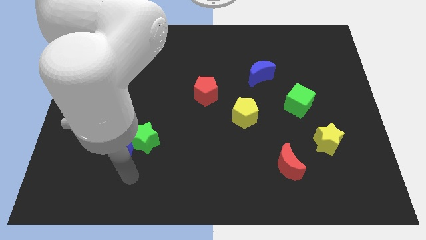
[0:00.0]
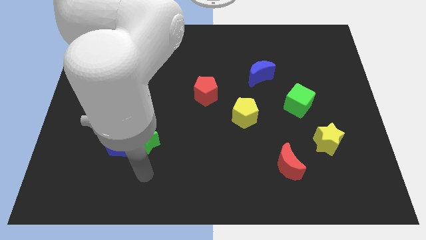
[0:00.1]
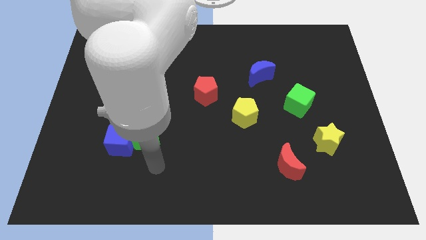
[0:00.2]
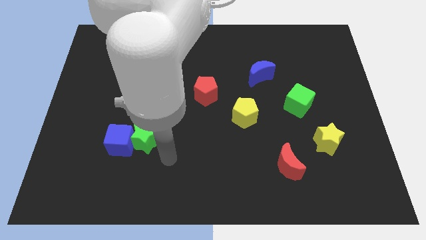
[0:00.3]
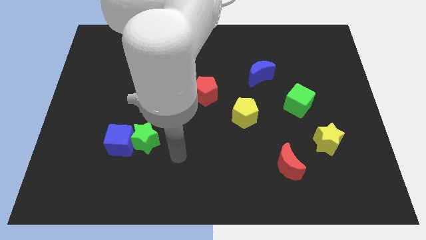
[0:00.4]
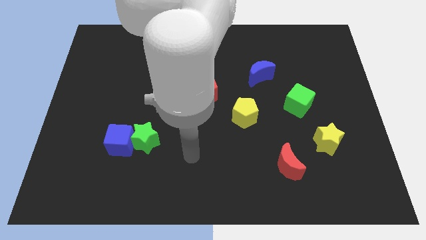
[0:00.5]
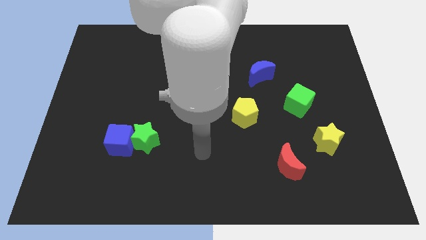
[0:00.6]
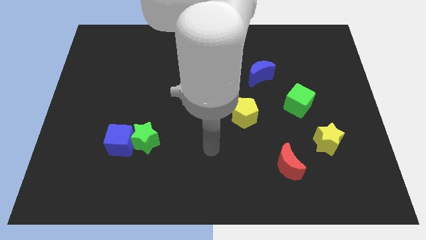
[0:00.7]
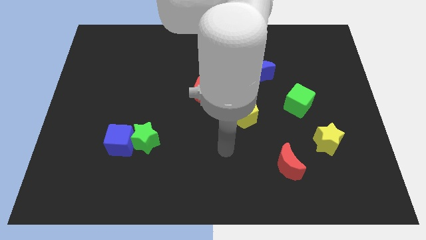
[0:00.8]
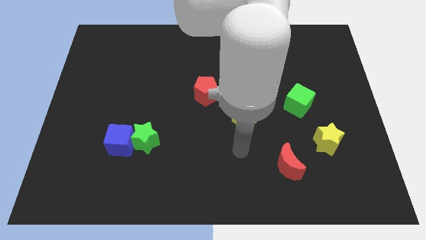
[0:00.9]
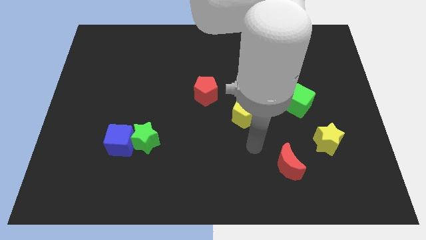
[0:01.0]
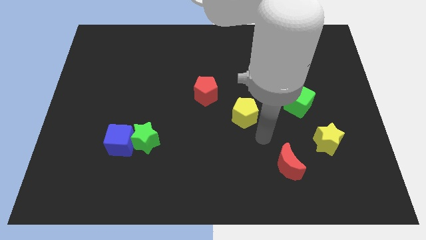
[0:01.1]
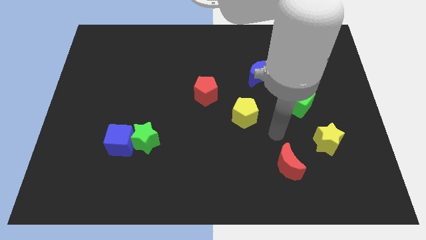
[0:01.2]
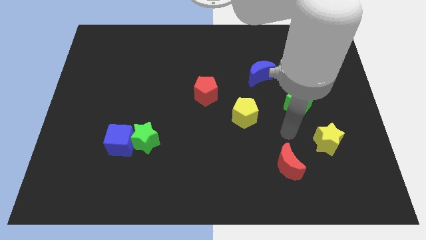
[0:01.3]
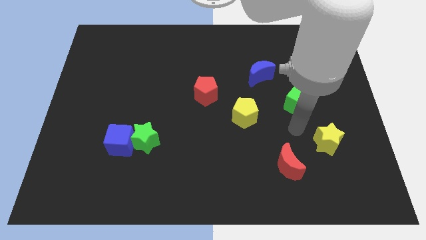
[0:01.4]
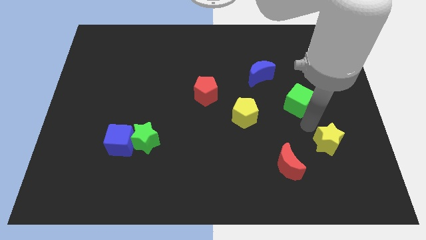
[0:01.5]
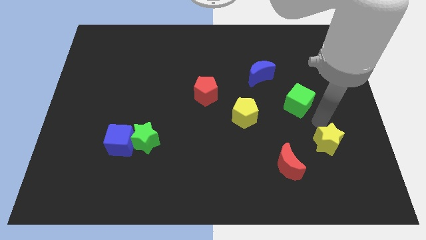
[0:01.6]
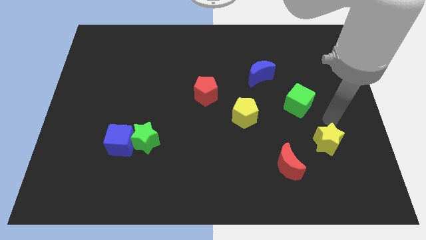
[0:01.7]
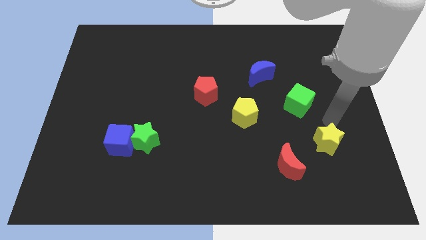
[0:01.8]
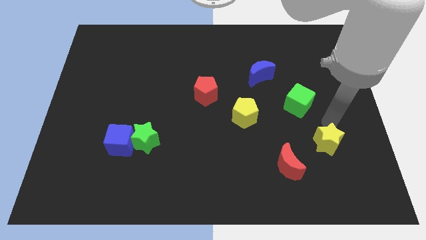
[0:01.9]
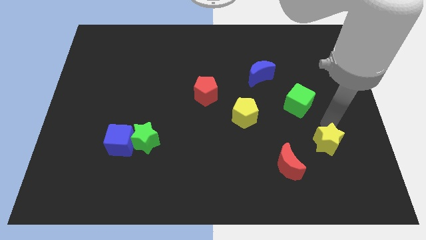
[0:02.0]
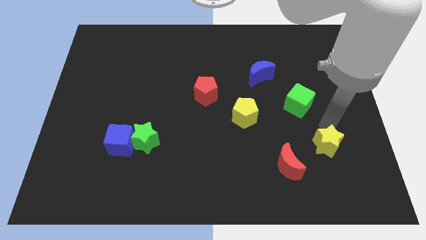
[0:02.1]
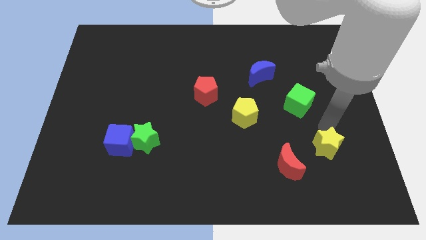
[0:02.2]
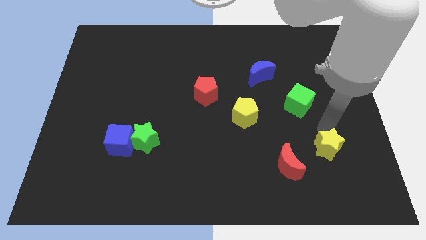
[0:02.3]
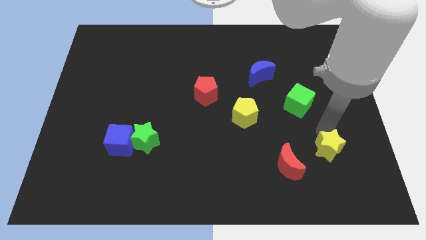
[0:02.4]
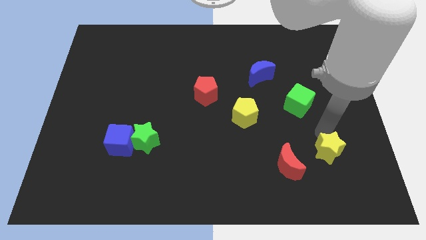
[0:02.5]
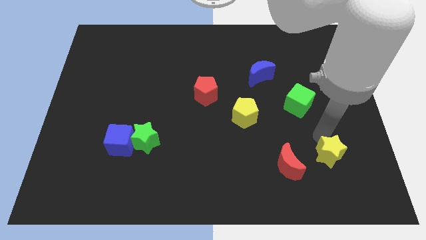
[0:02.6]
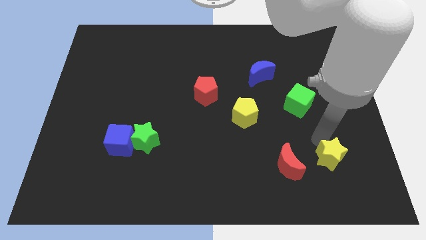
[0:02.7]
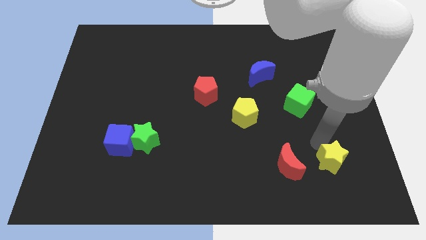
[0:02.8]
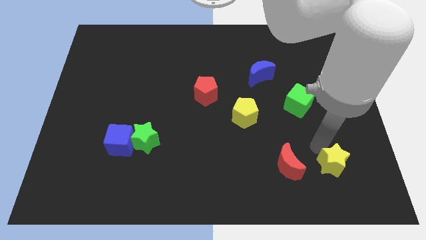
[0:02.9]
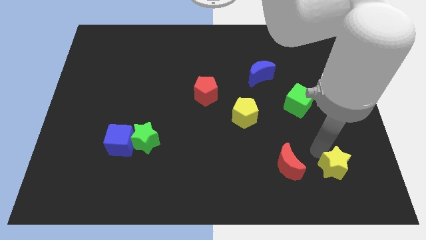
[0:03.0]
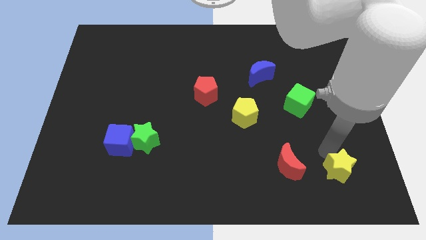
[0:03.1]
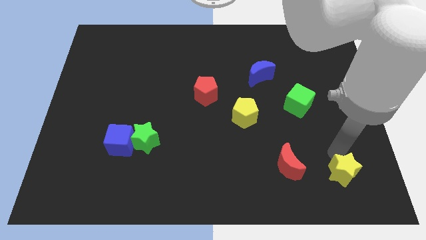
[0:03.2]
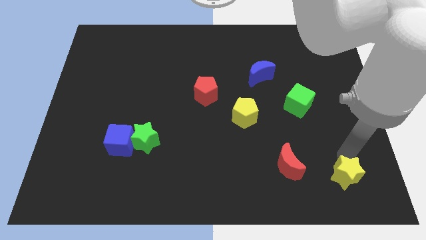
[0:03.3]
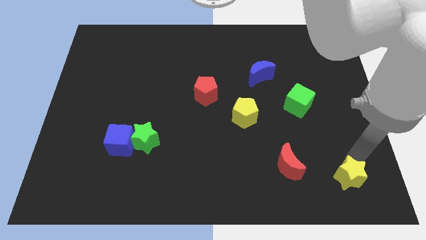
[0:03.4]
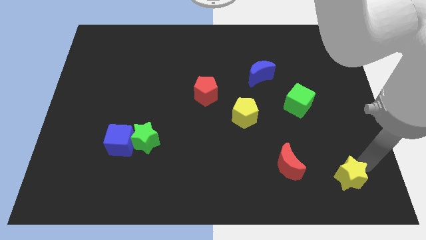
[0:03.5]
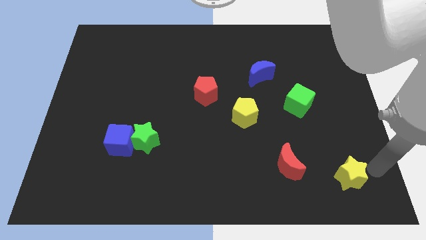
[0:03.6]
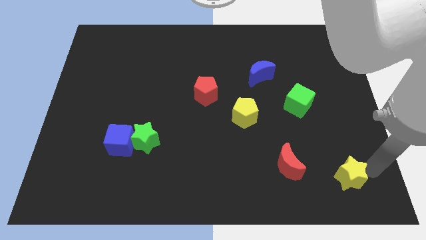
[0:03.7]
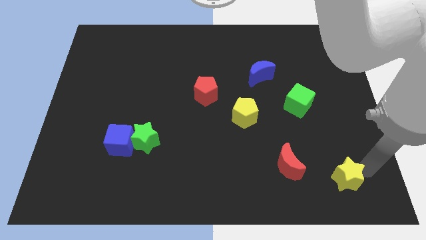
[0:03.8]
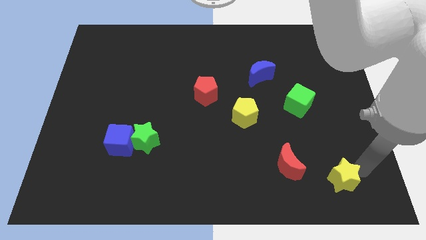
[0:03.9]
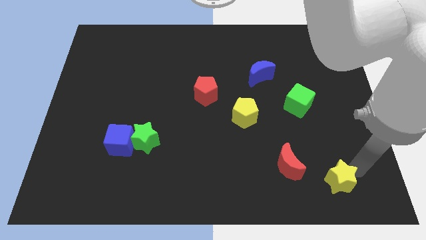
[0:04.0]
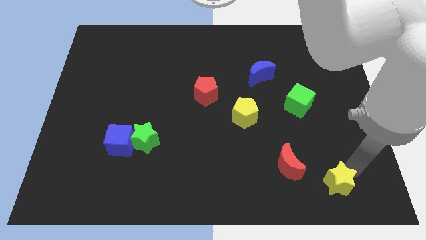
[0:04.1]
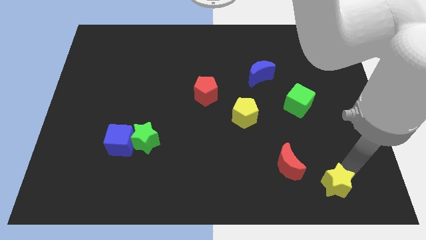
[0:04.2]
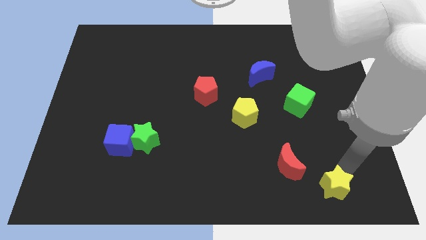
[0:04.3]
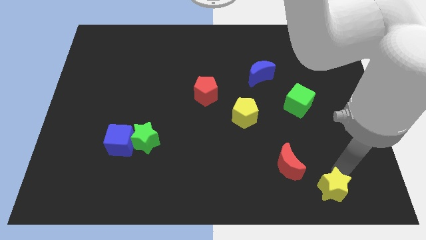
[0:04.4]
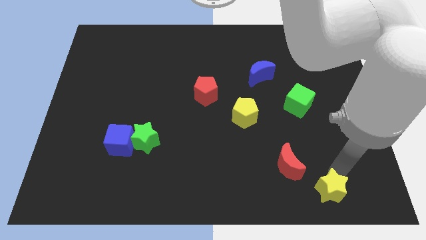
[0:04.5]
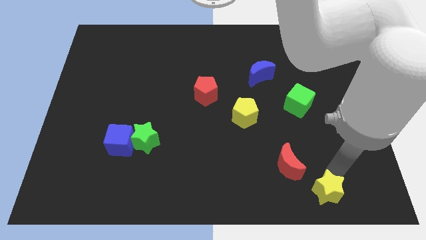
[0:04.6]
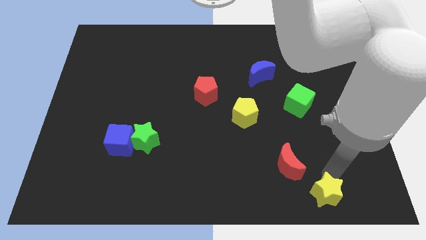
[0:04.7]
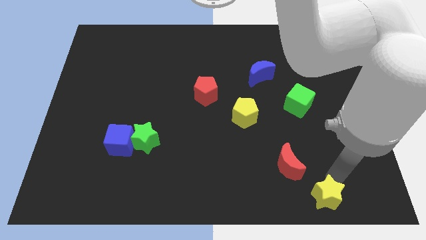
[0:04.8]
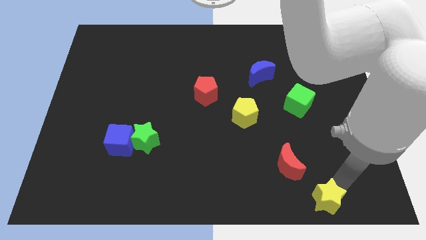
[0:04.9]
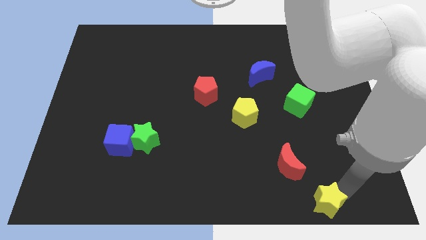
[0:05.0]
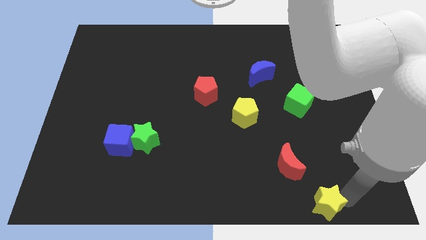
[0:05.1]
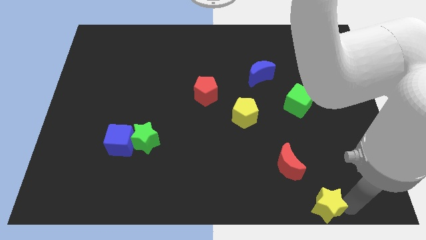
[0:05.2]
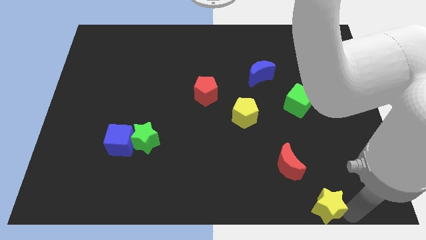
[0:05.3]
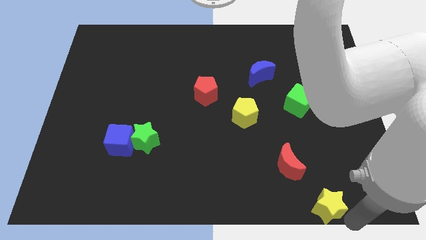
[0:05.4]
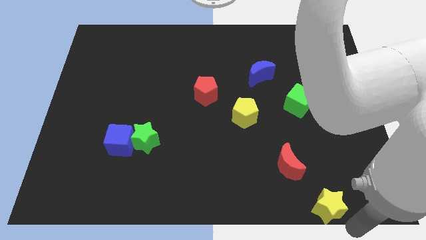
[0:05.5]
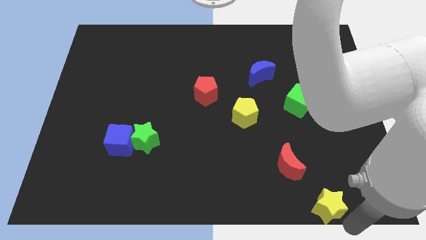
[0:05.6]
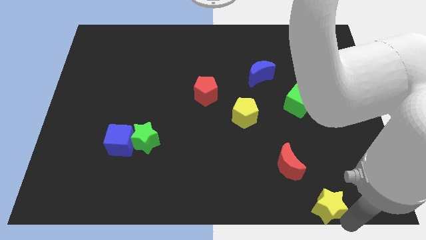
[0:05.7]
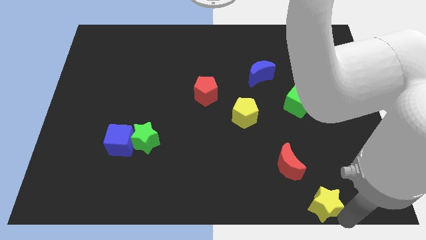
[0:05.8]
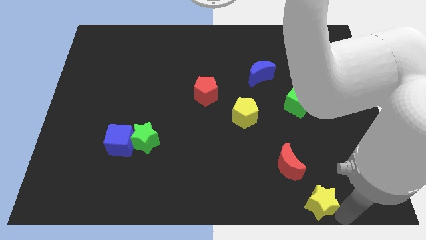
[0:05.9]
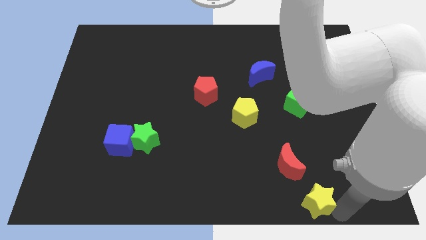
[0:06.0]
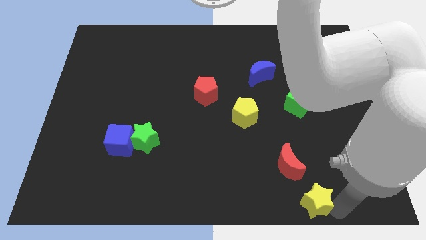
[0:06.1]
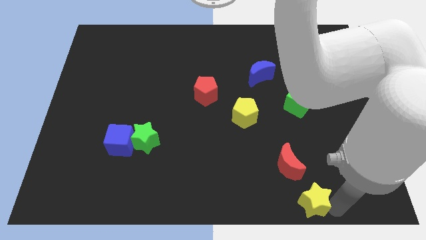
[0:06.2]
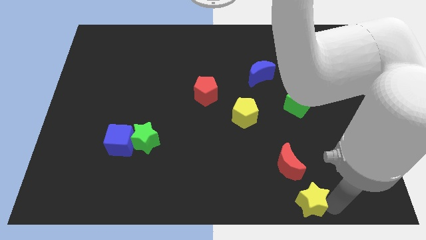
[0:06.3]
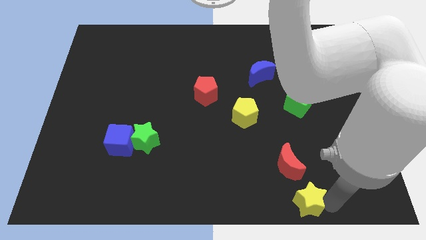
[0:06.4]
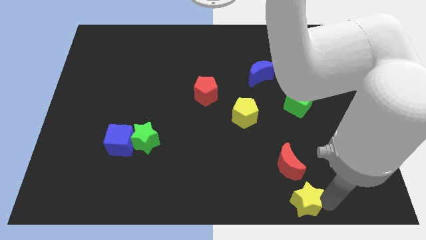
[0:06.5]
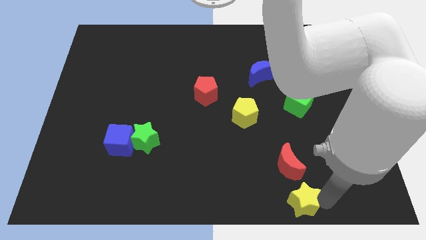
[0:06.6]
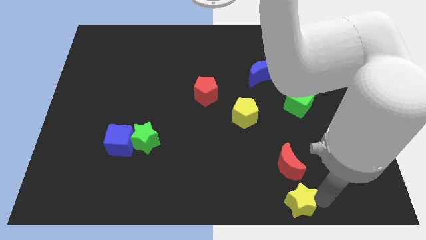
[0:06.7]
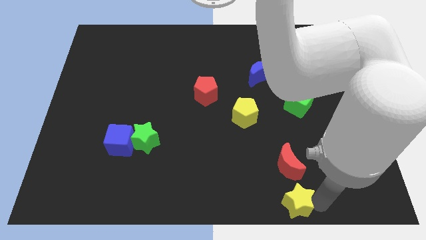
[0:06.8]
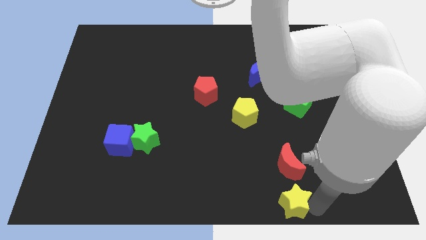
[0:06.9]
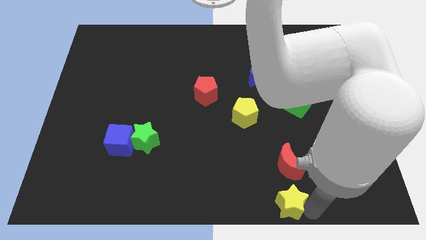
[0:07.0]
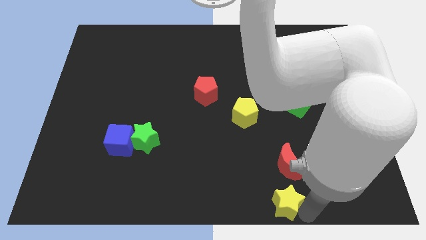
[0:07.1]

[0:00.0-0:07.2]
move the yellow star to the bottom
